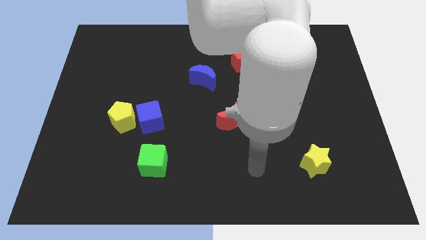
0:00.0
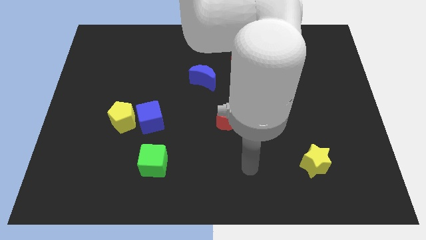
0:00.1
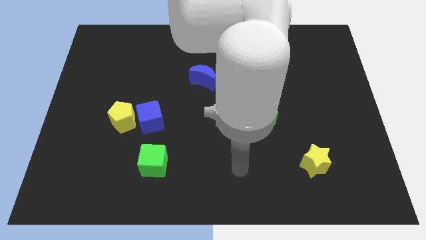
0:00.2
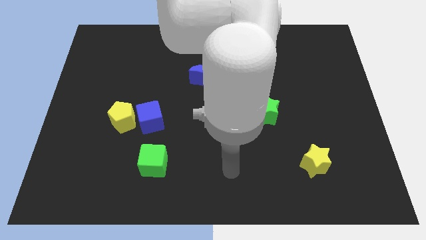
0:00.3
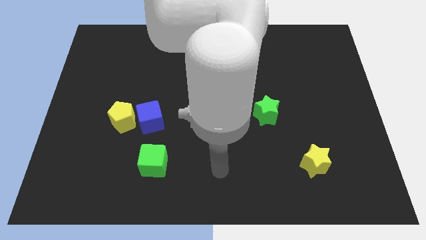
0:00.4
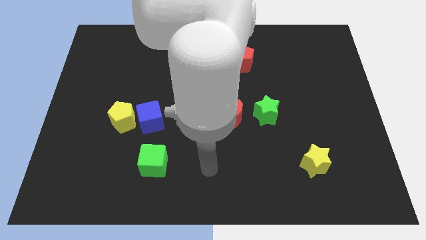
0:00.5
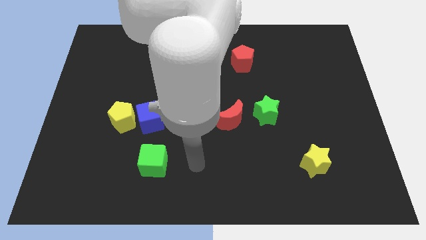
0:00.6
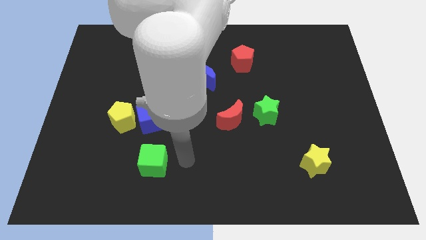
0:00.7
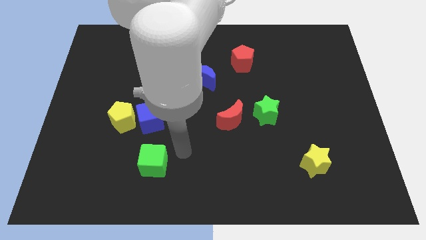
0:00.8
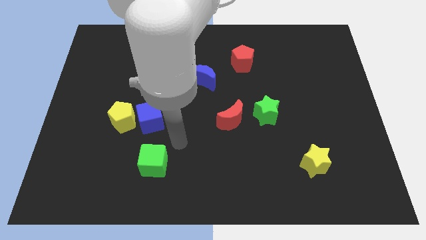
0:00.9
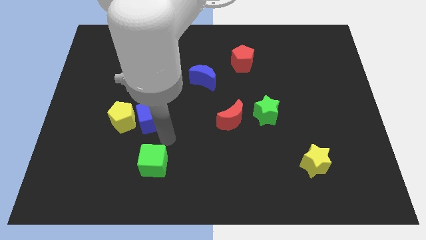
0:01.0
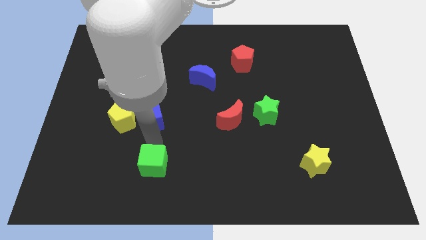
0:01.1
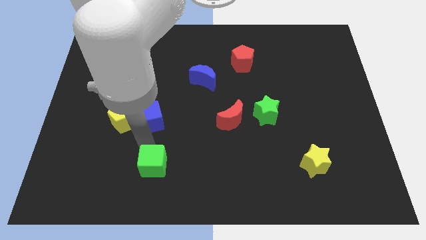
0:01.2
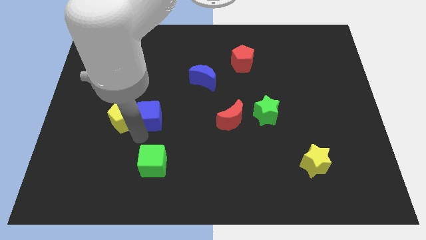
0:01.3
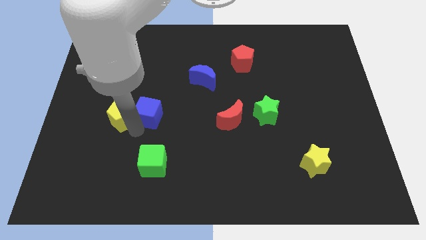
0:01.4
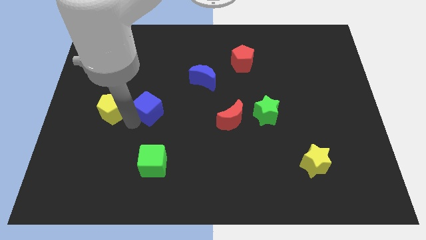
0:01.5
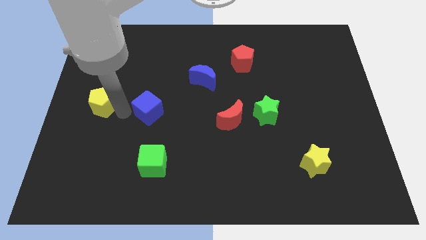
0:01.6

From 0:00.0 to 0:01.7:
separate the blue cube from the yellow pentagon

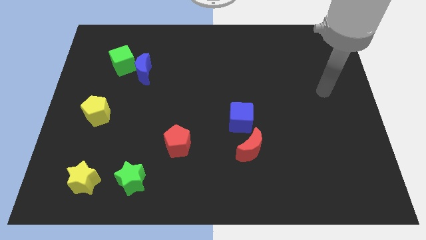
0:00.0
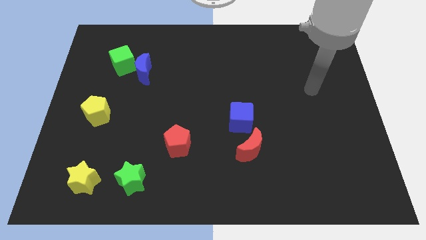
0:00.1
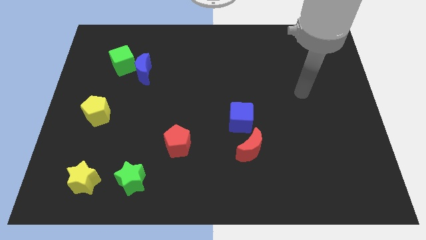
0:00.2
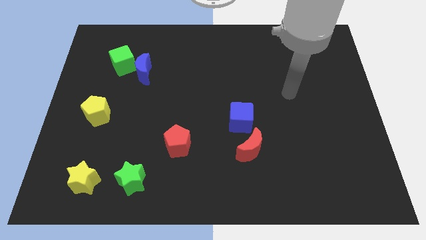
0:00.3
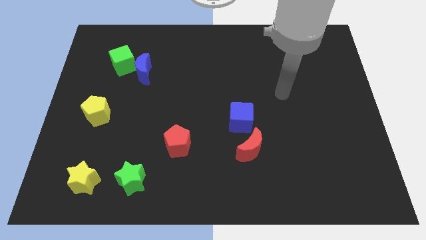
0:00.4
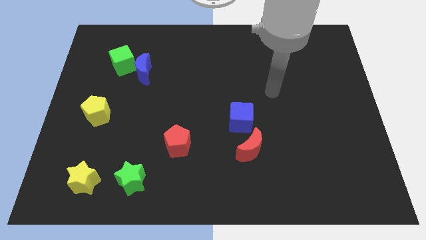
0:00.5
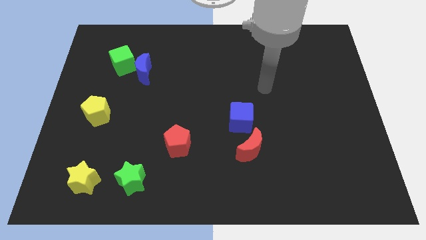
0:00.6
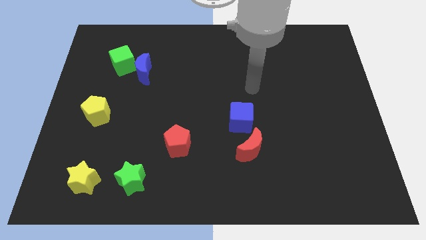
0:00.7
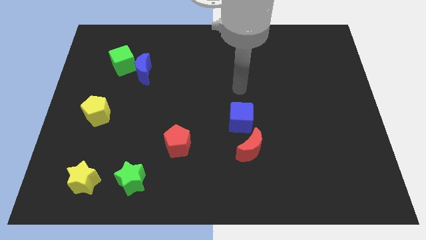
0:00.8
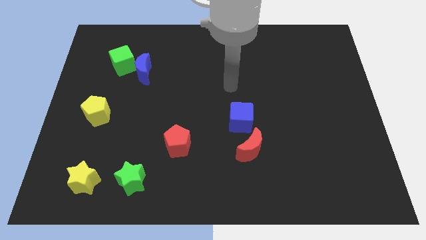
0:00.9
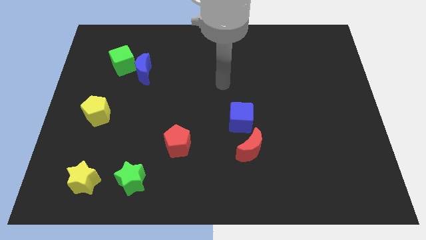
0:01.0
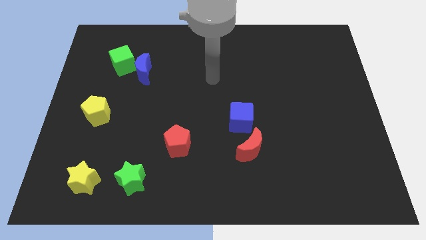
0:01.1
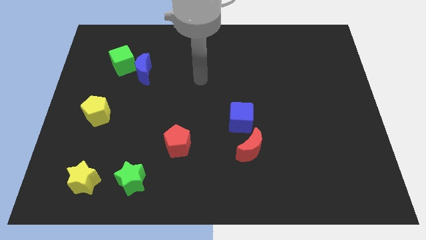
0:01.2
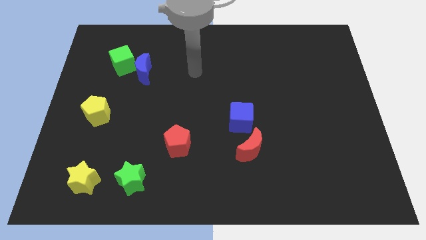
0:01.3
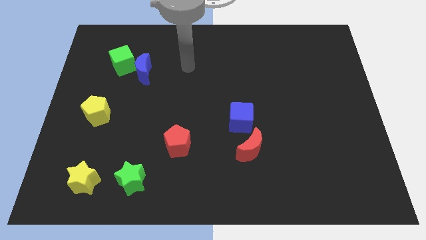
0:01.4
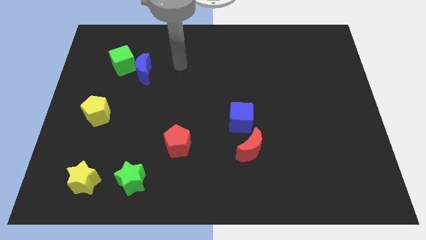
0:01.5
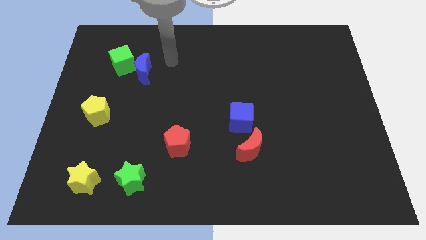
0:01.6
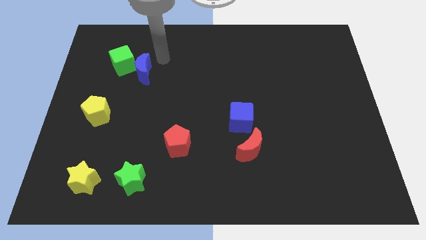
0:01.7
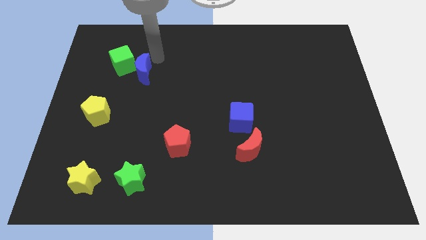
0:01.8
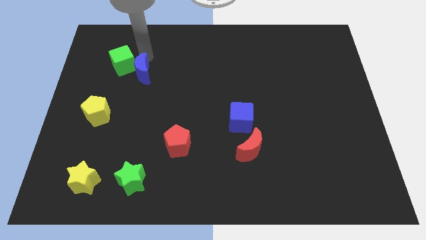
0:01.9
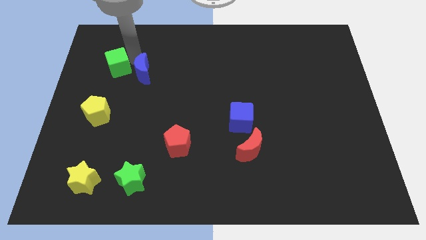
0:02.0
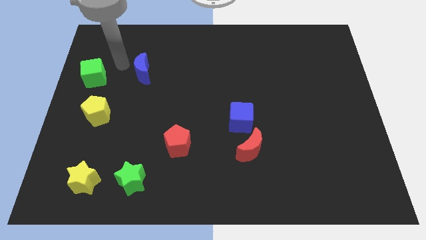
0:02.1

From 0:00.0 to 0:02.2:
move the blue moon away from the green cube

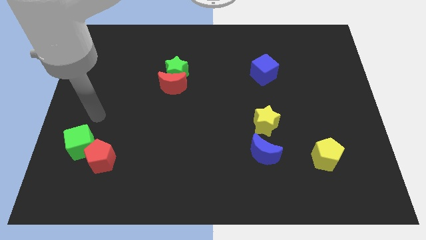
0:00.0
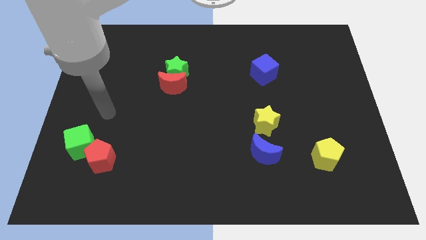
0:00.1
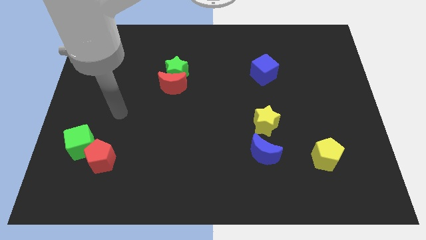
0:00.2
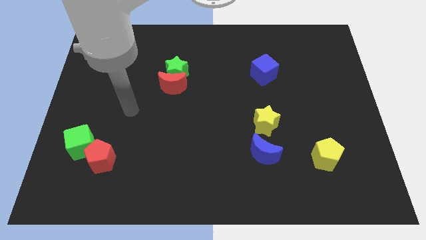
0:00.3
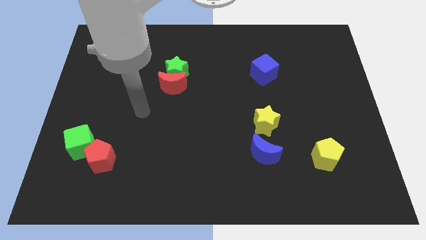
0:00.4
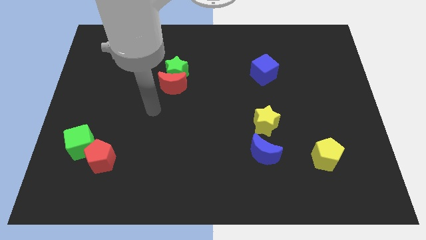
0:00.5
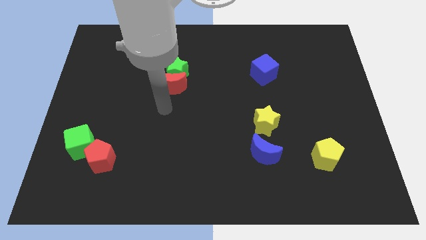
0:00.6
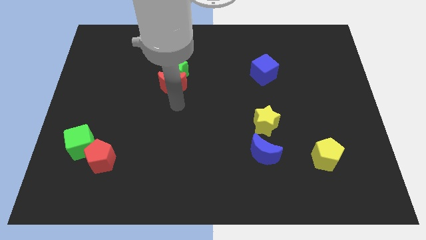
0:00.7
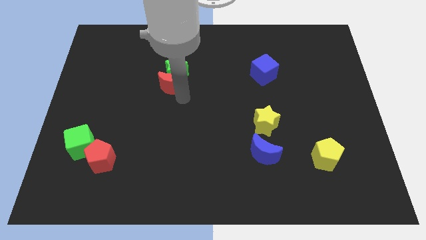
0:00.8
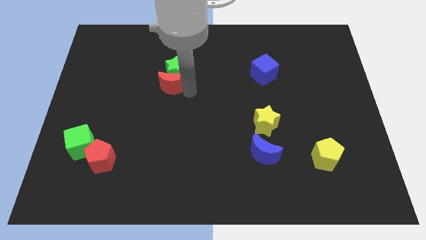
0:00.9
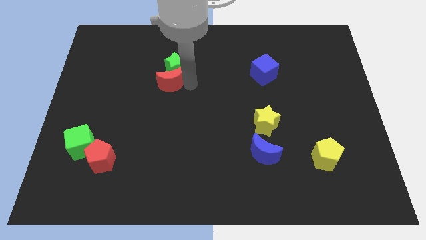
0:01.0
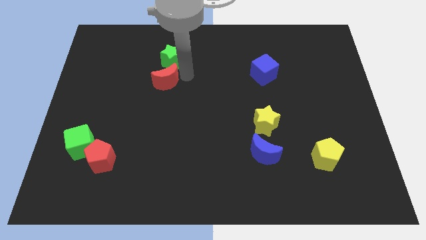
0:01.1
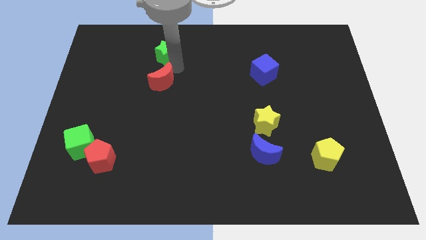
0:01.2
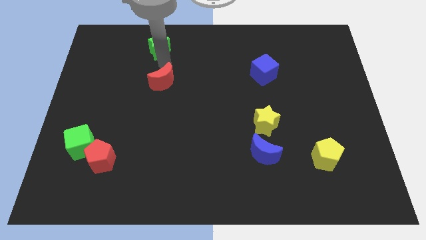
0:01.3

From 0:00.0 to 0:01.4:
move the red moon away from the green star

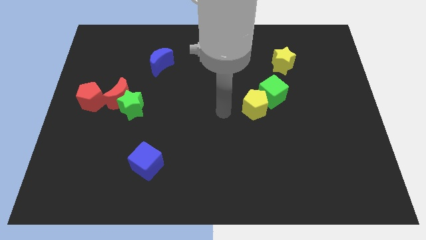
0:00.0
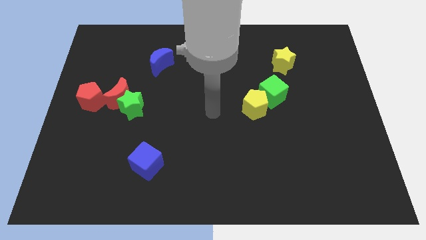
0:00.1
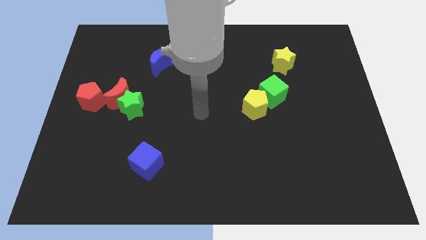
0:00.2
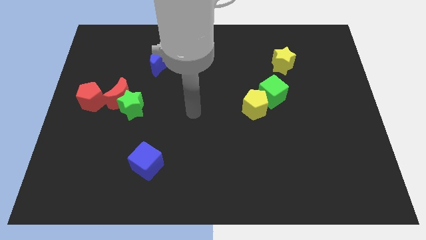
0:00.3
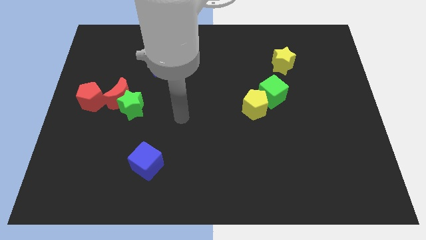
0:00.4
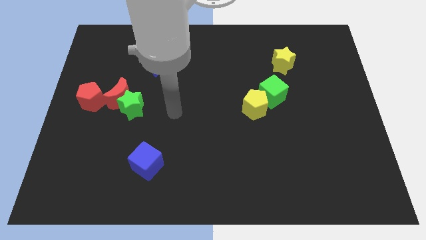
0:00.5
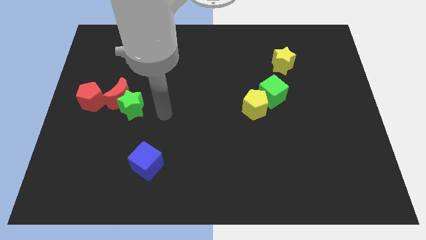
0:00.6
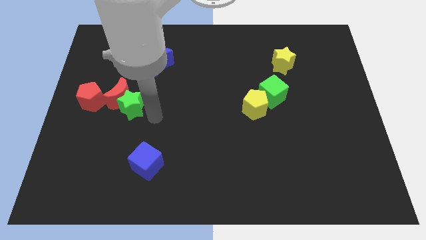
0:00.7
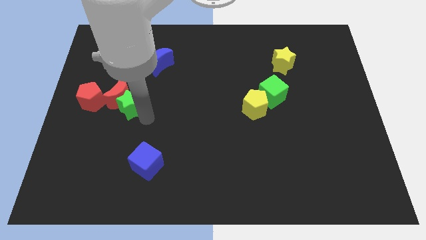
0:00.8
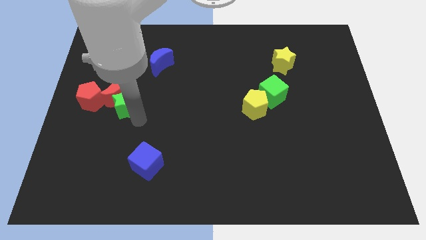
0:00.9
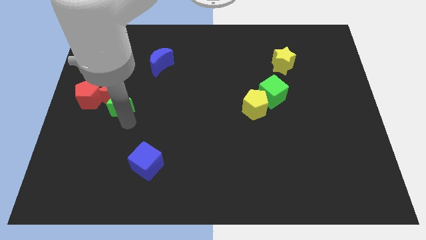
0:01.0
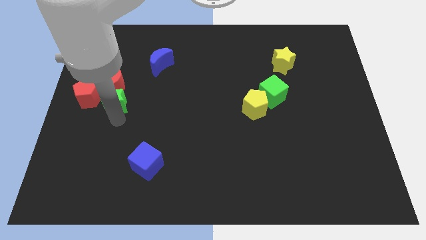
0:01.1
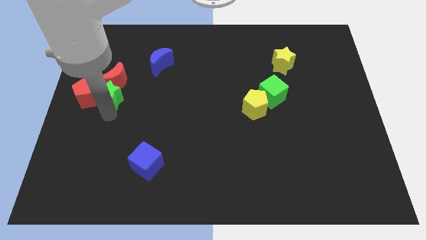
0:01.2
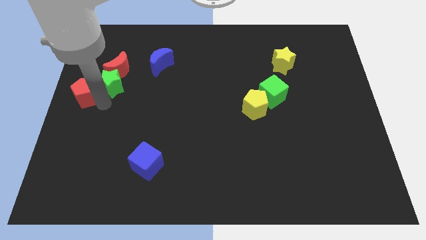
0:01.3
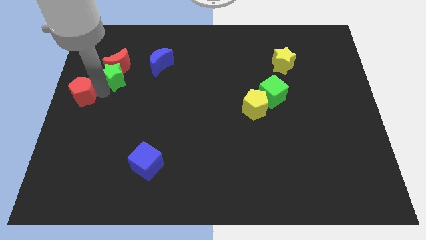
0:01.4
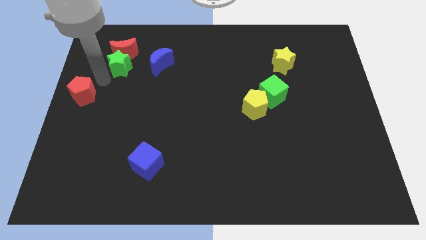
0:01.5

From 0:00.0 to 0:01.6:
separate the red moon from the green star and red pentagon

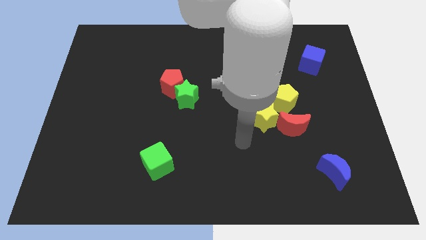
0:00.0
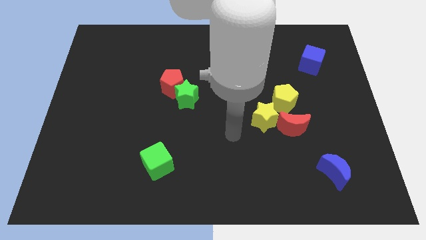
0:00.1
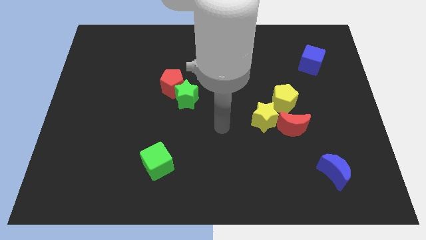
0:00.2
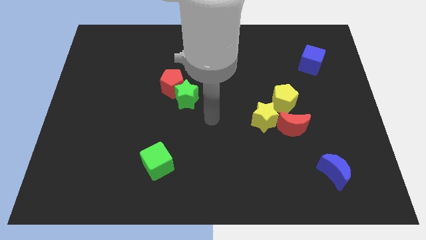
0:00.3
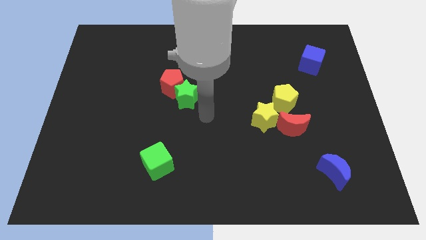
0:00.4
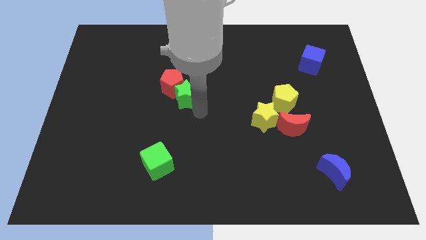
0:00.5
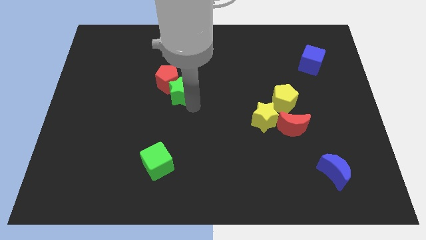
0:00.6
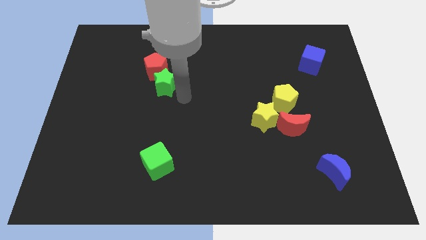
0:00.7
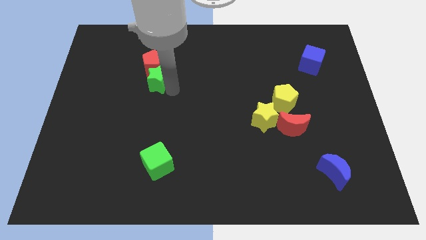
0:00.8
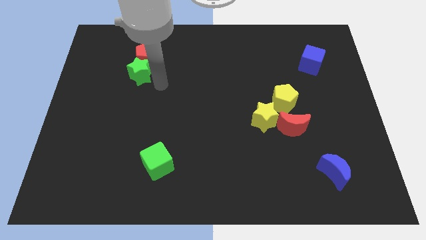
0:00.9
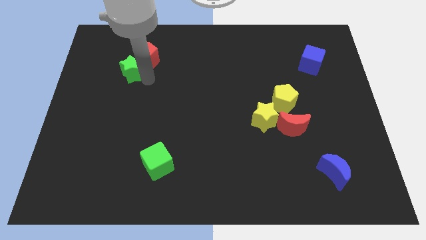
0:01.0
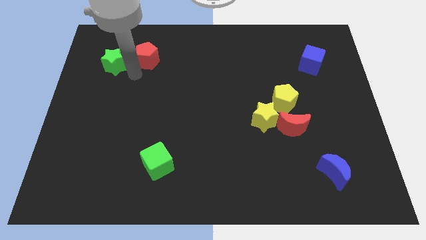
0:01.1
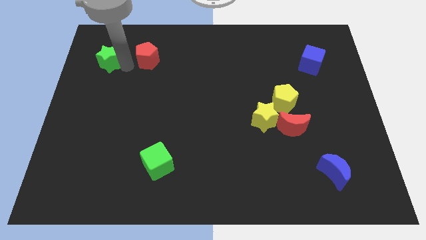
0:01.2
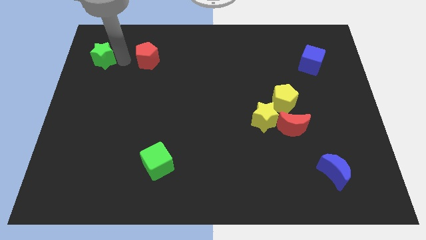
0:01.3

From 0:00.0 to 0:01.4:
separate the red pentagon from the green star

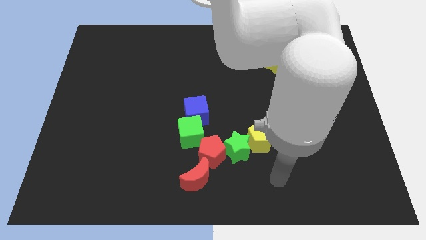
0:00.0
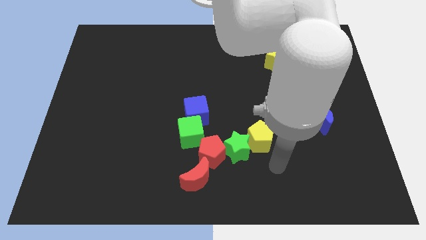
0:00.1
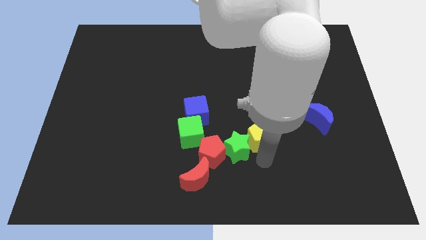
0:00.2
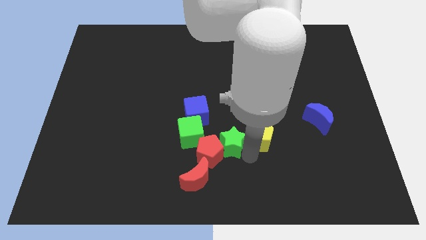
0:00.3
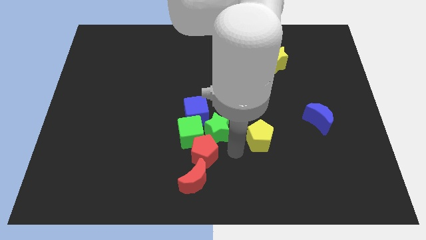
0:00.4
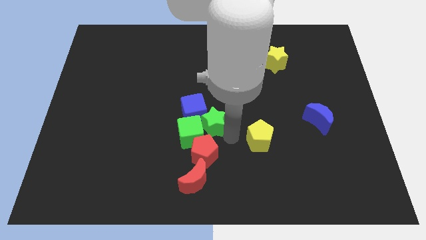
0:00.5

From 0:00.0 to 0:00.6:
move the yellow pentagon away from the green star

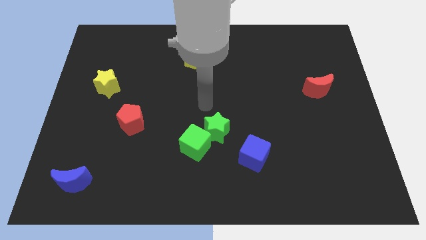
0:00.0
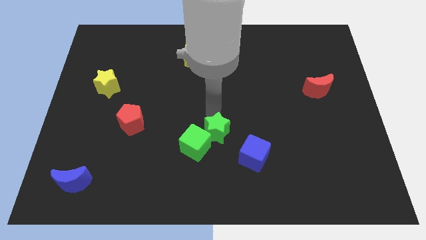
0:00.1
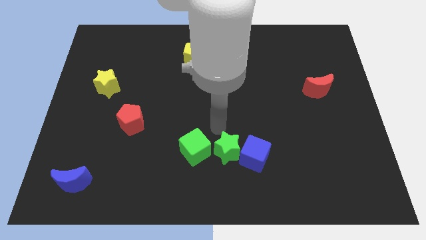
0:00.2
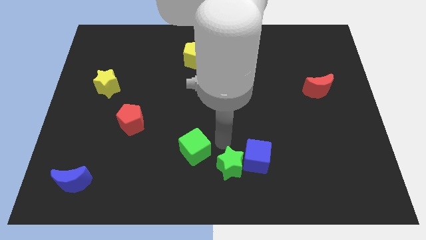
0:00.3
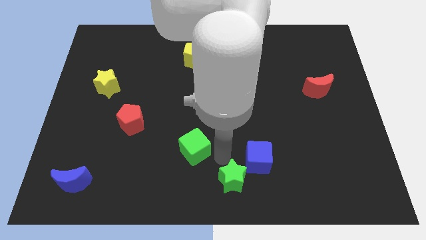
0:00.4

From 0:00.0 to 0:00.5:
move the green cube away from the green star
